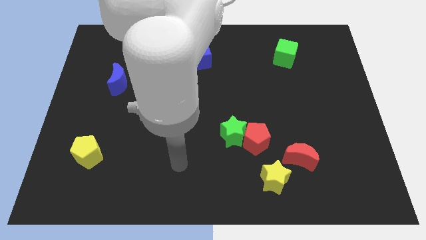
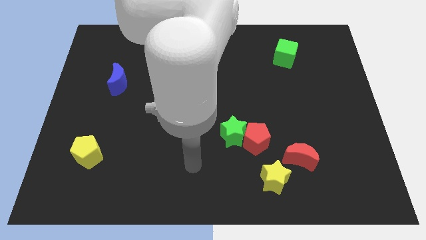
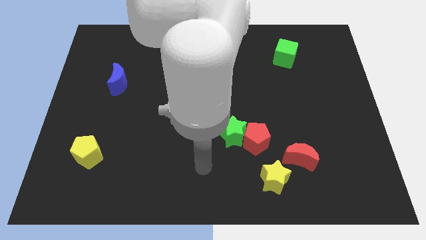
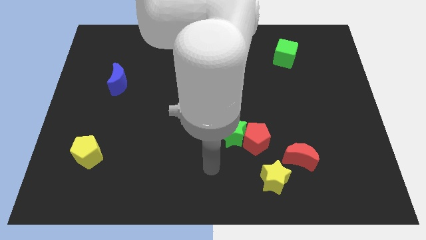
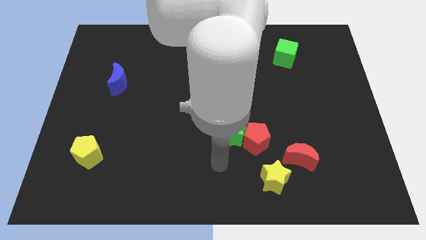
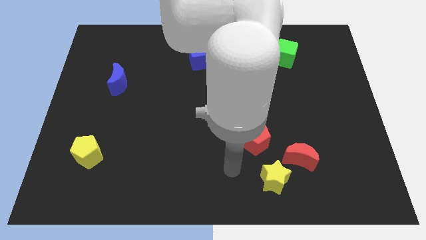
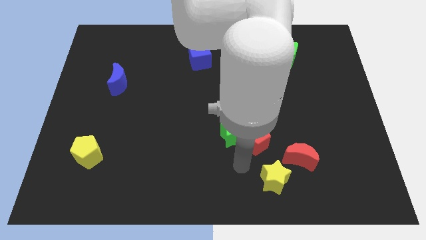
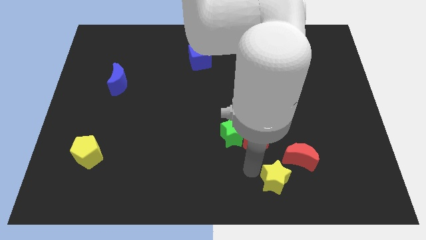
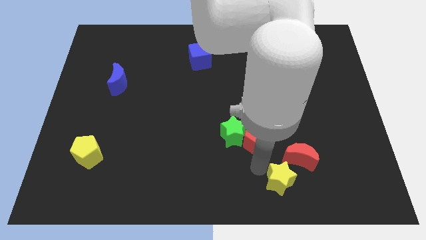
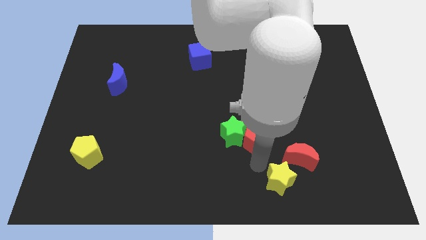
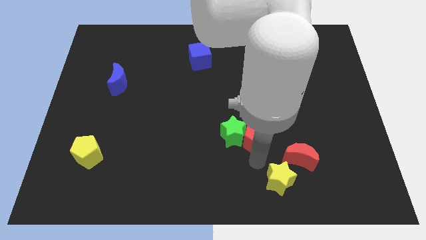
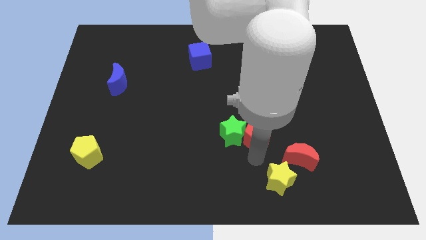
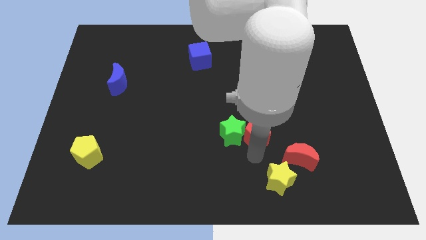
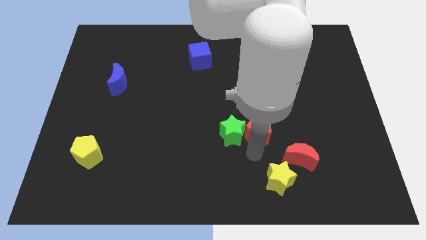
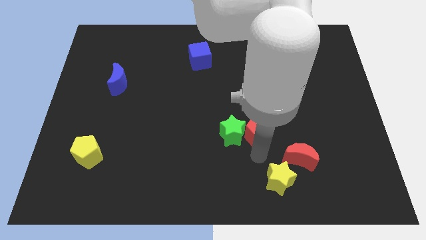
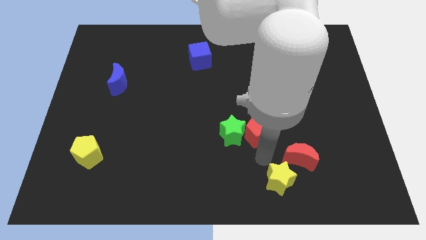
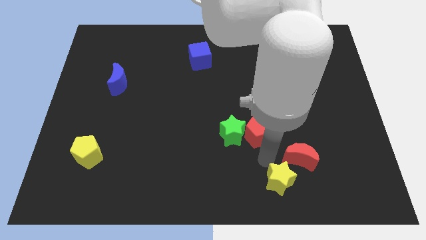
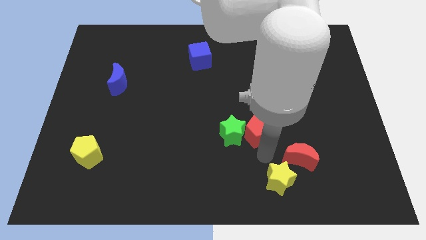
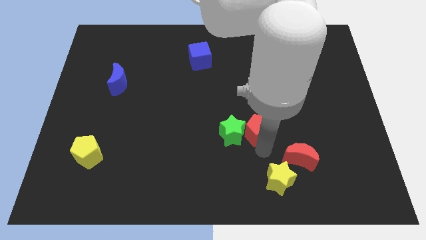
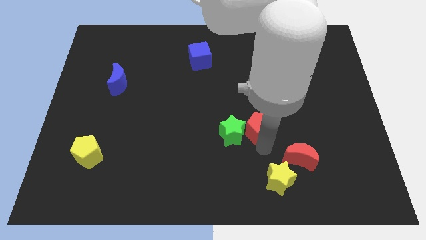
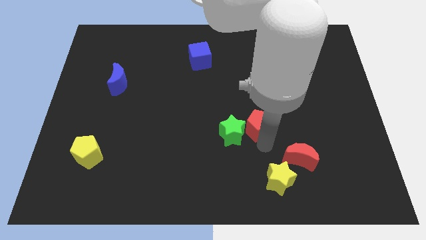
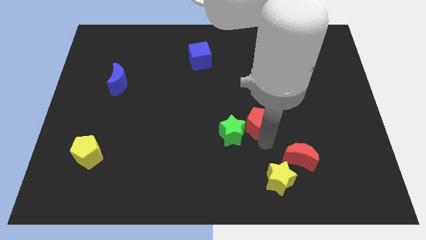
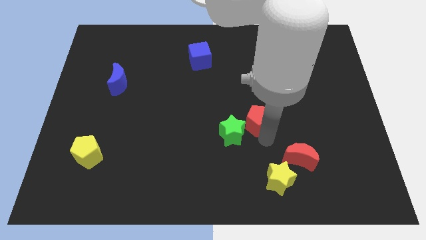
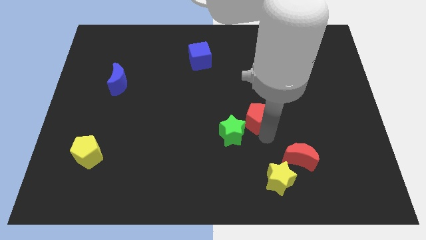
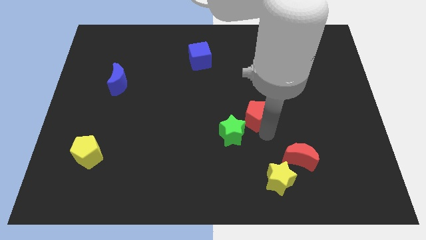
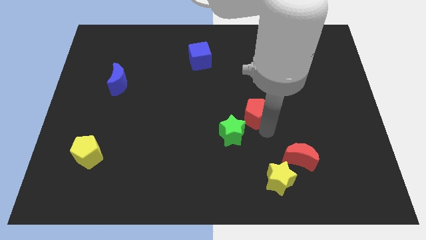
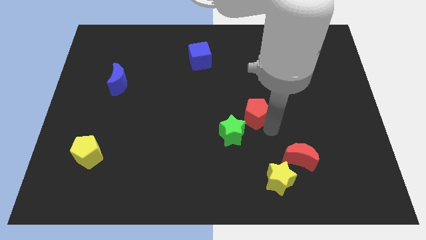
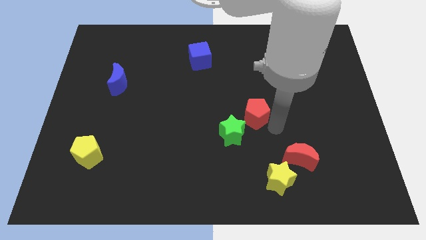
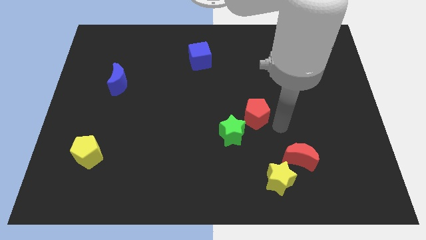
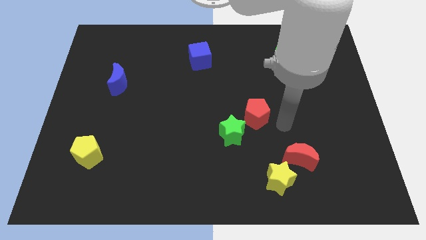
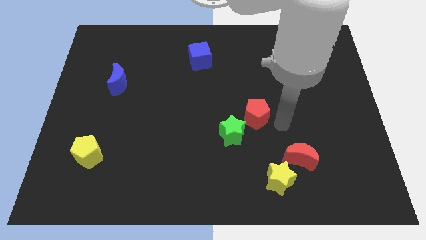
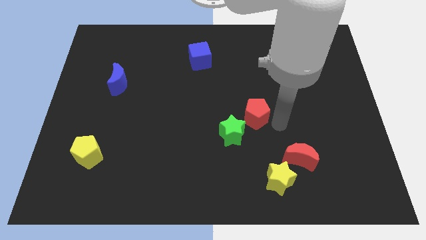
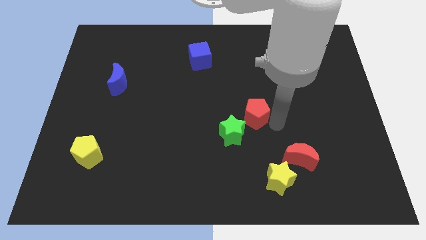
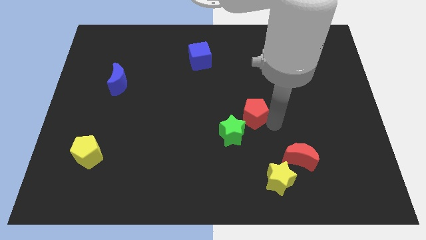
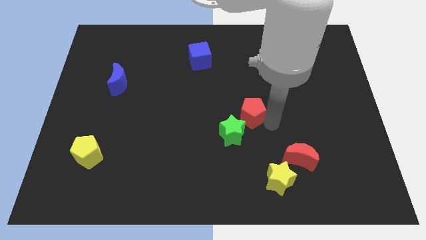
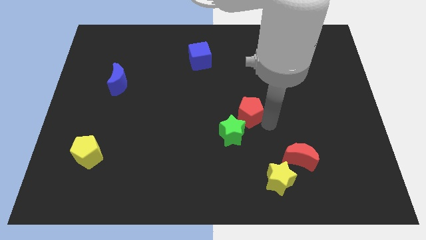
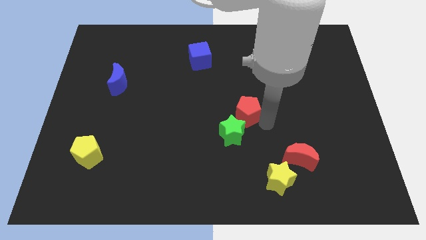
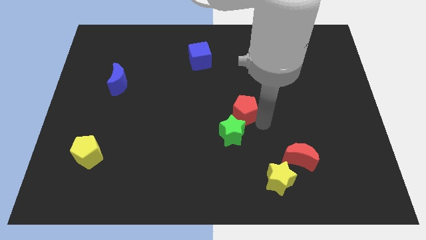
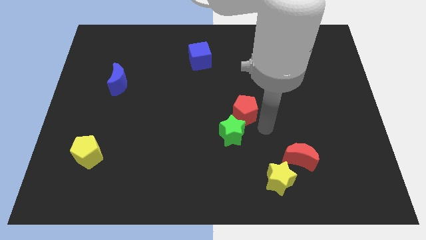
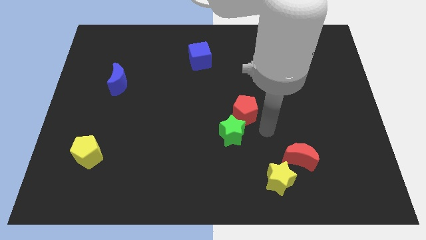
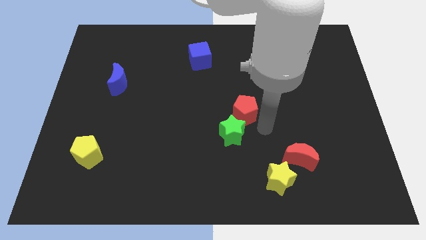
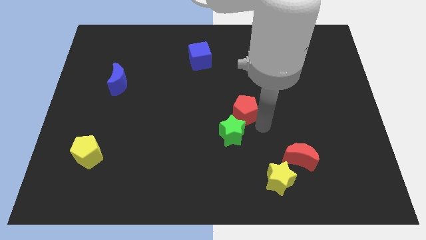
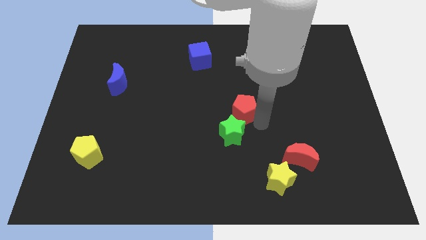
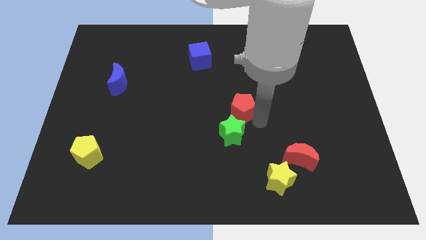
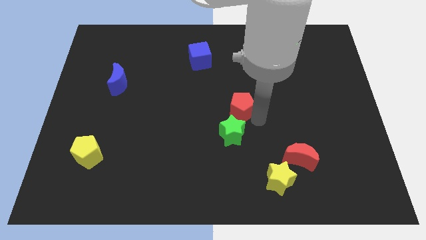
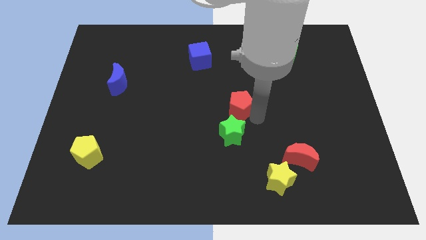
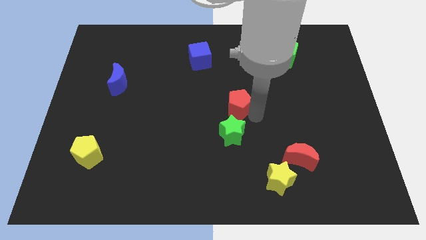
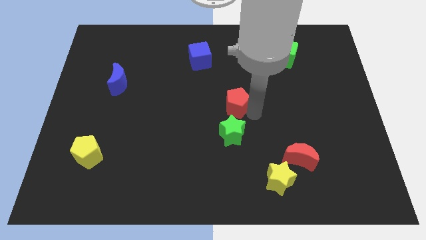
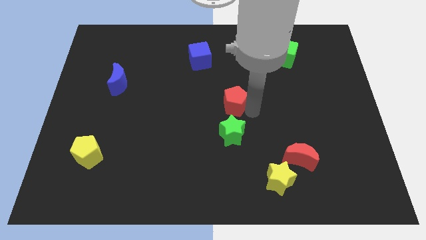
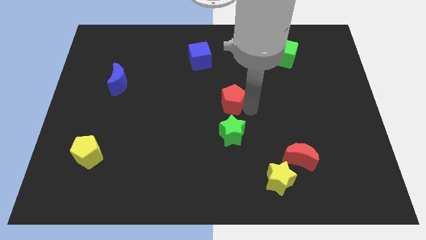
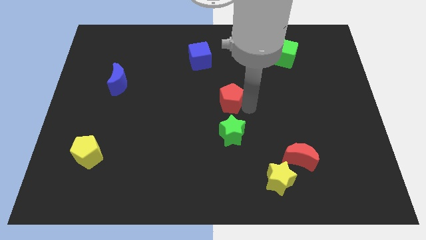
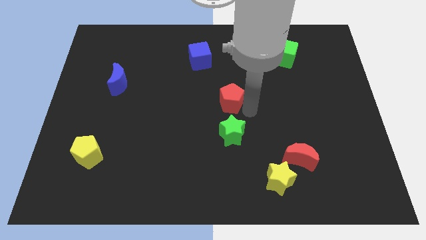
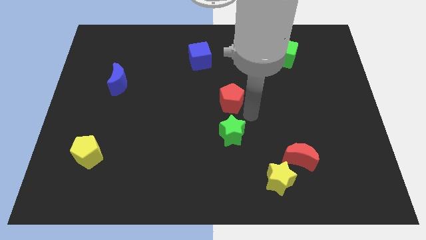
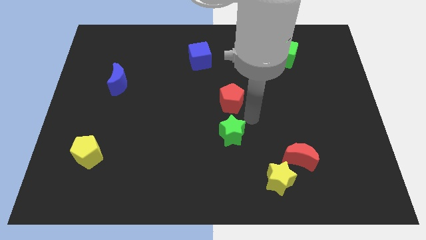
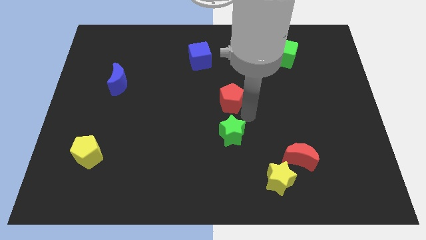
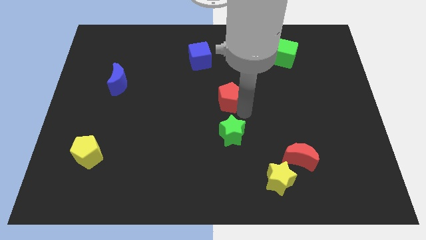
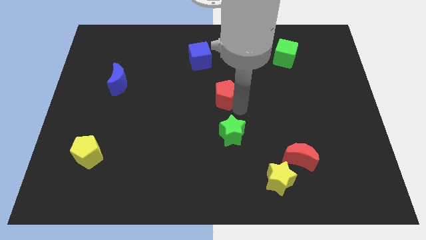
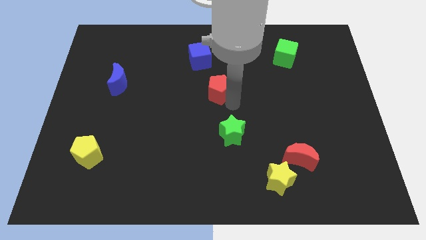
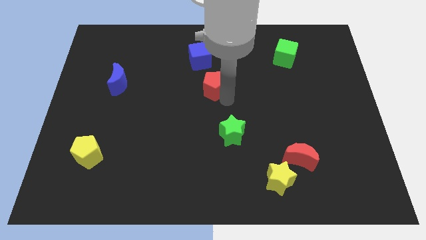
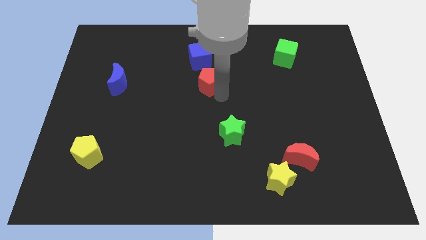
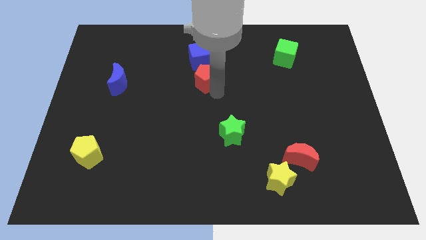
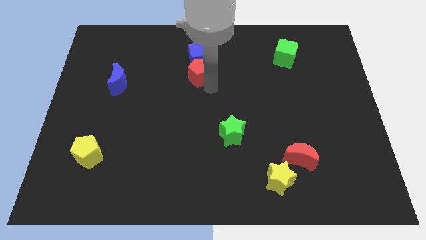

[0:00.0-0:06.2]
push the red pentagon towards the blue cube

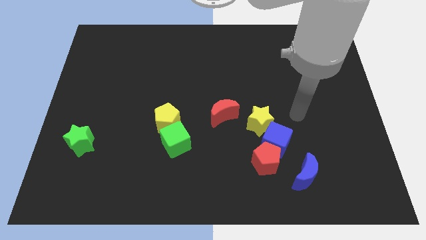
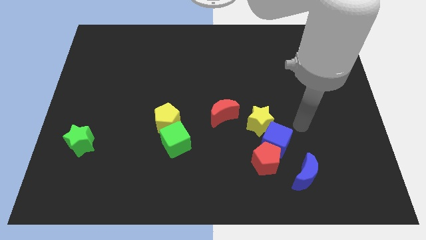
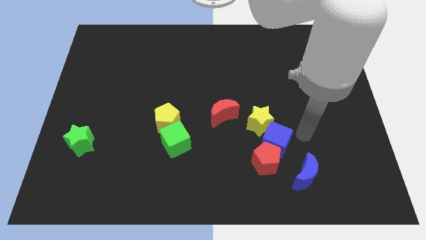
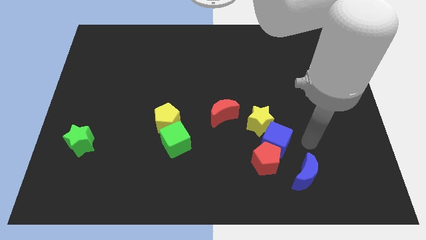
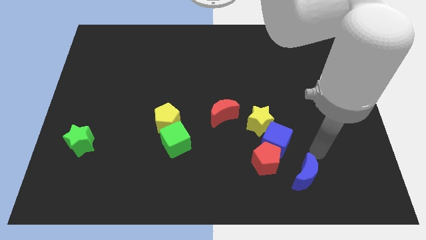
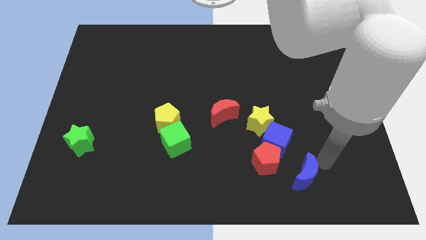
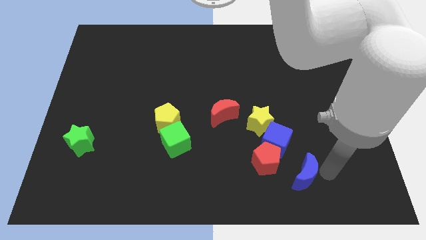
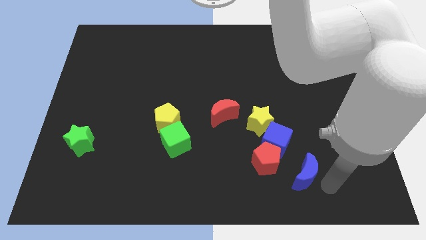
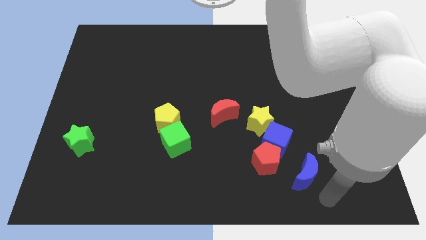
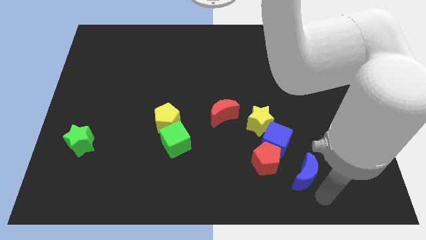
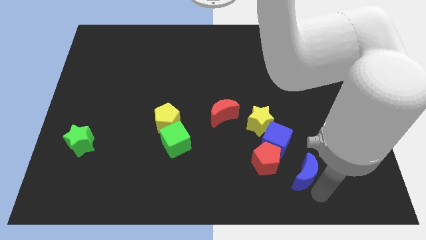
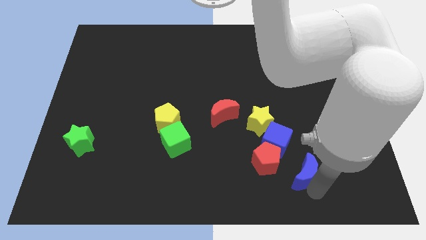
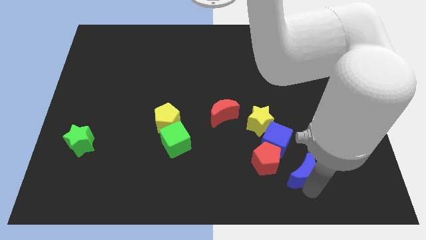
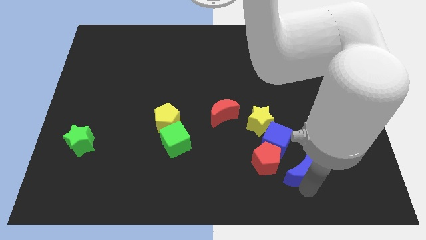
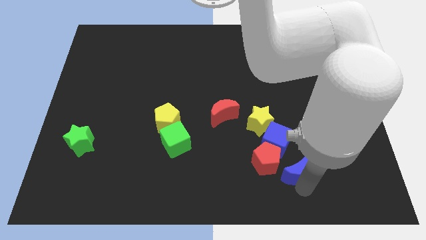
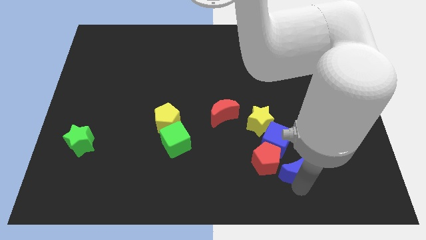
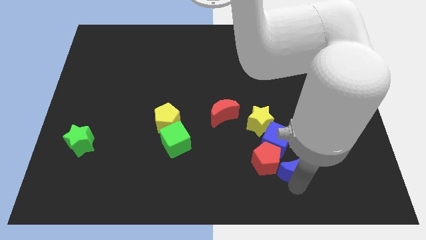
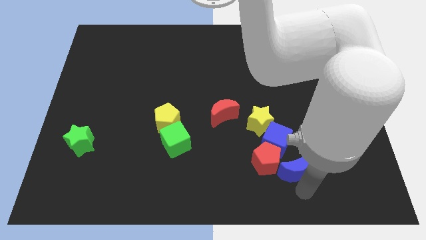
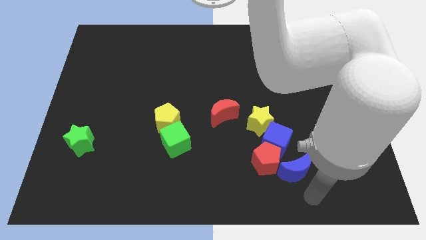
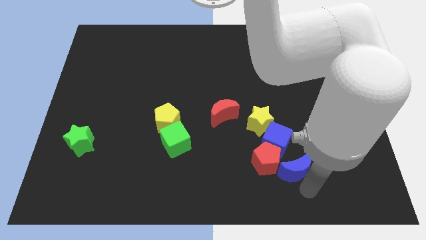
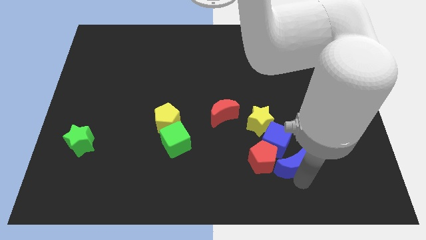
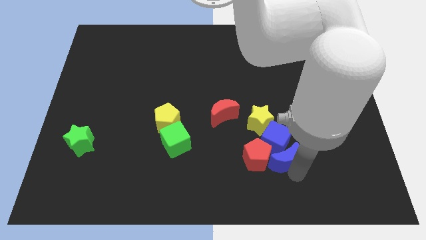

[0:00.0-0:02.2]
move the blue moon close to the blue cube
